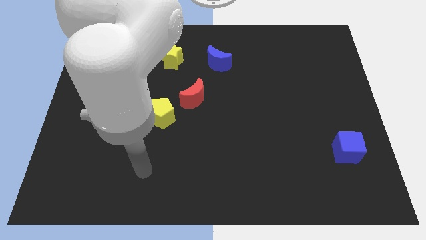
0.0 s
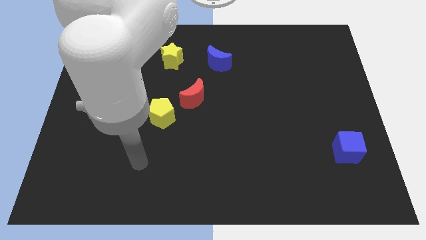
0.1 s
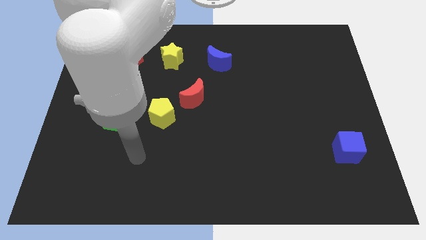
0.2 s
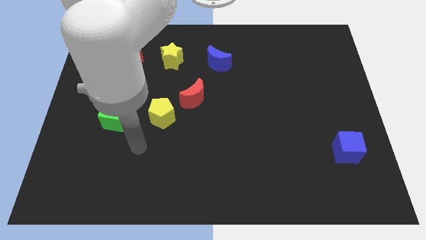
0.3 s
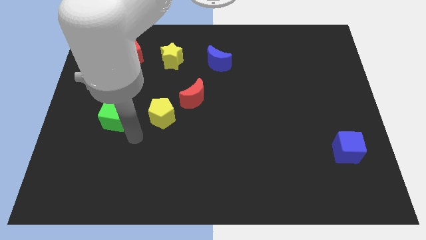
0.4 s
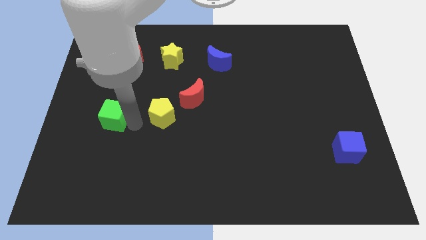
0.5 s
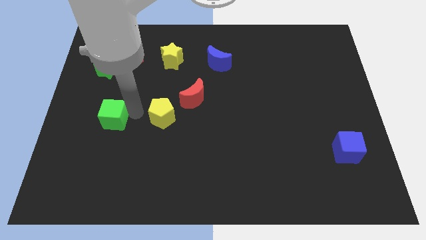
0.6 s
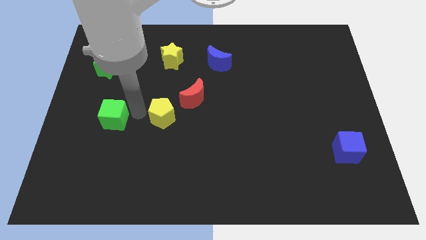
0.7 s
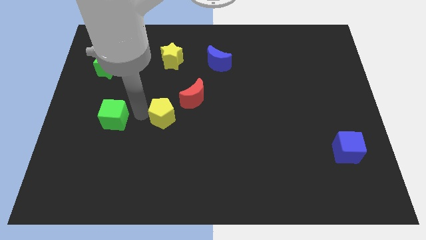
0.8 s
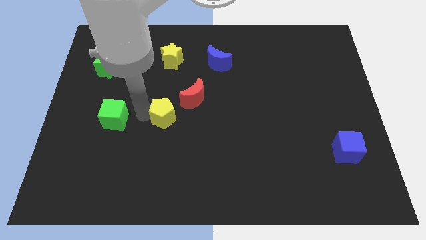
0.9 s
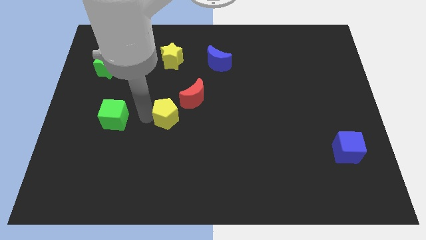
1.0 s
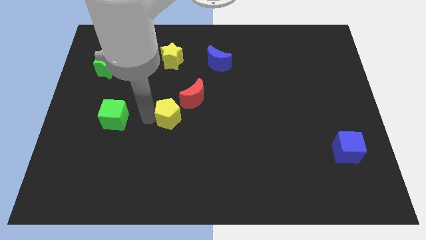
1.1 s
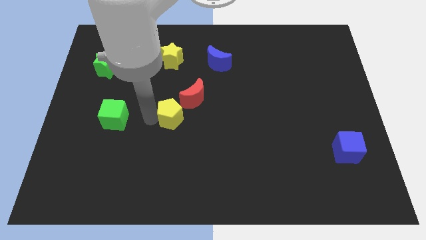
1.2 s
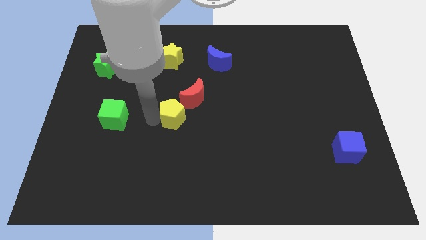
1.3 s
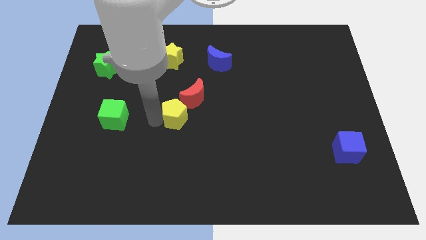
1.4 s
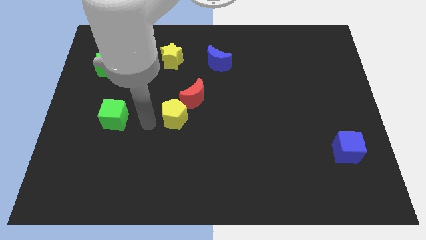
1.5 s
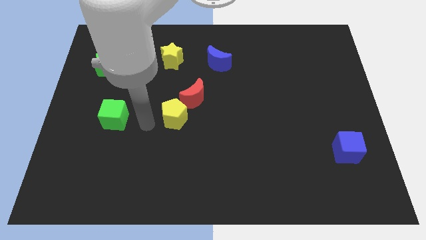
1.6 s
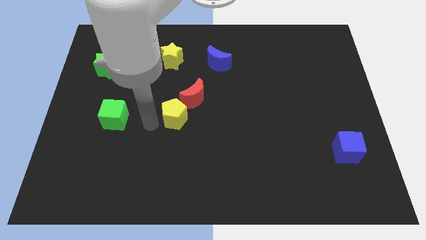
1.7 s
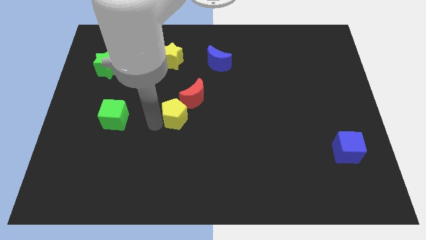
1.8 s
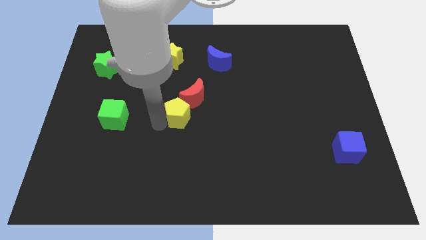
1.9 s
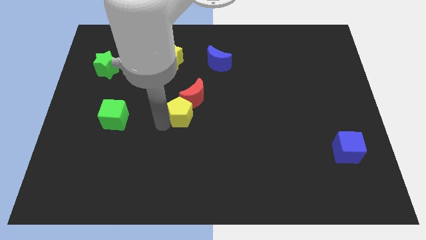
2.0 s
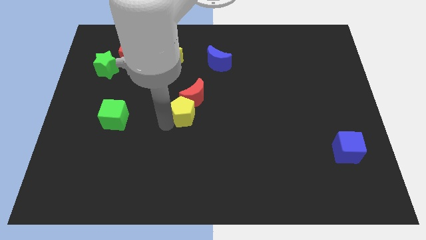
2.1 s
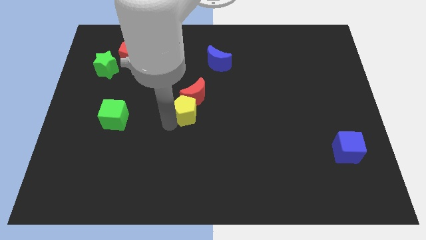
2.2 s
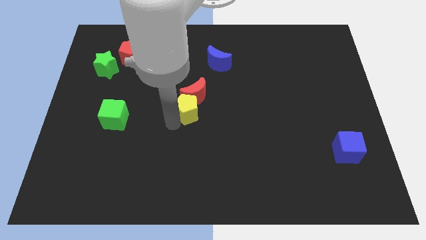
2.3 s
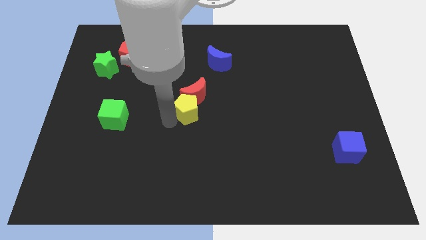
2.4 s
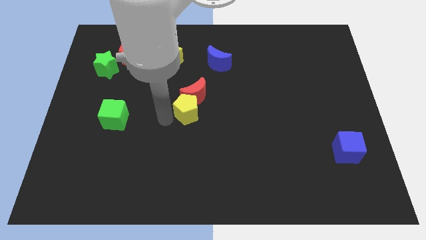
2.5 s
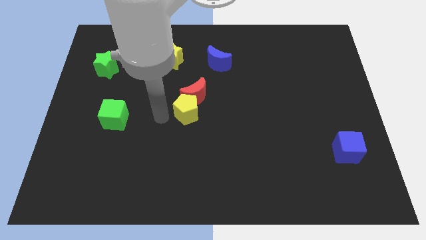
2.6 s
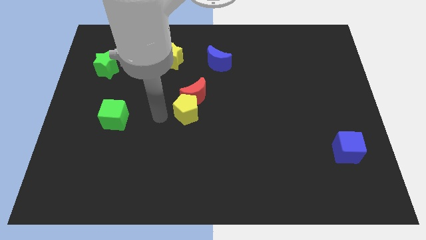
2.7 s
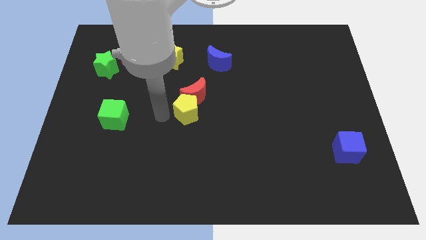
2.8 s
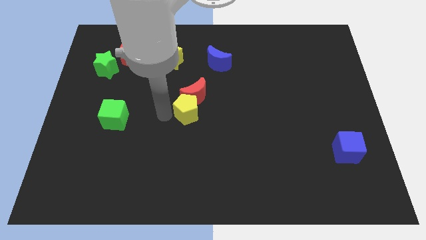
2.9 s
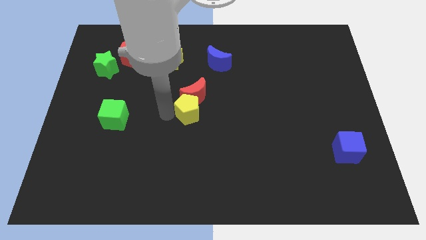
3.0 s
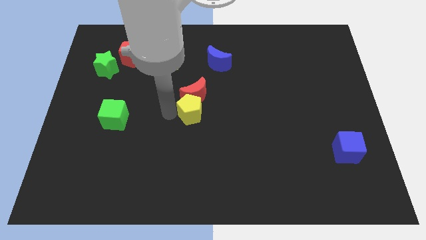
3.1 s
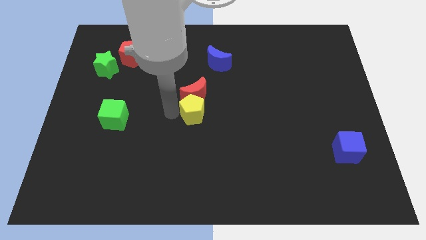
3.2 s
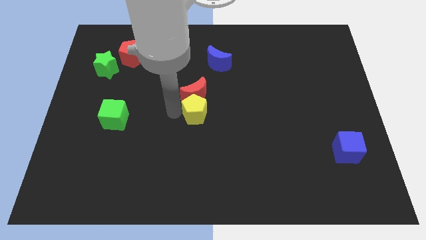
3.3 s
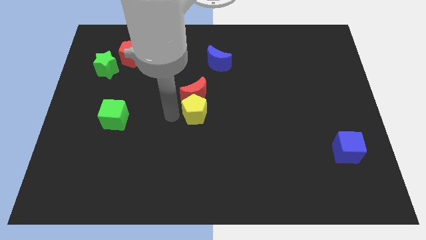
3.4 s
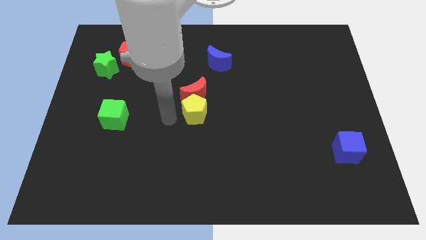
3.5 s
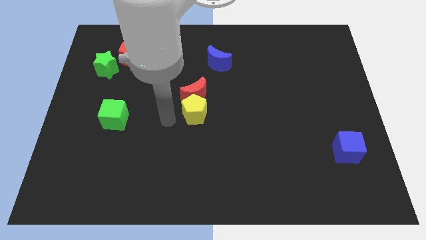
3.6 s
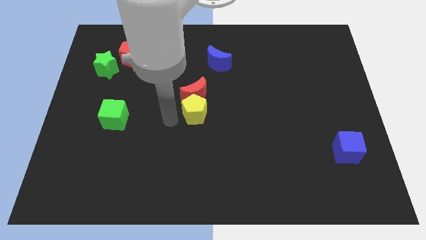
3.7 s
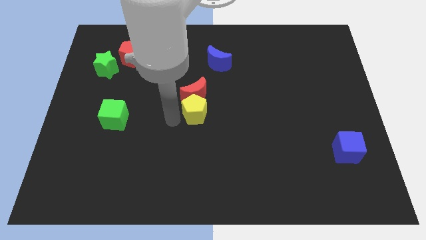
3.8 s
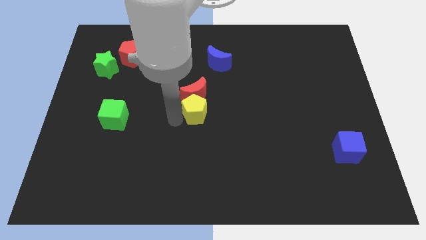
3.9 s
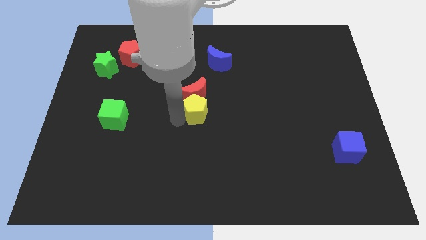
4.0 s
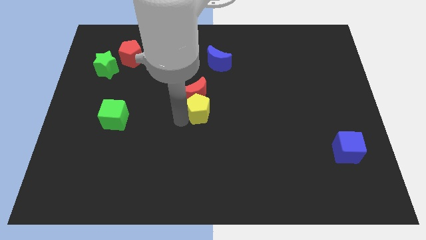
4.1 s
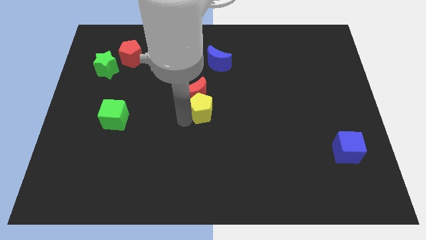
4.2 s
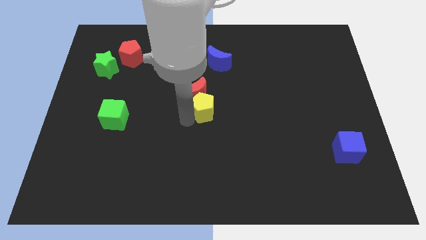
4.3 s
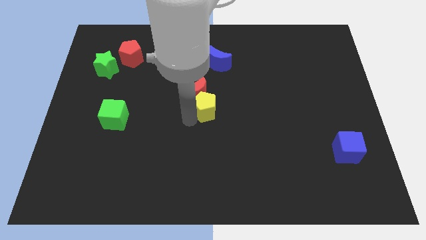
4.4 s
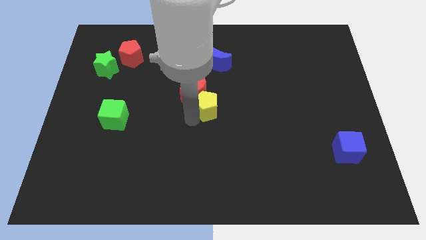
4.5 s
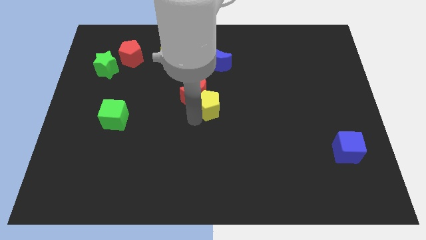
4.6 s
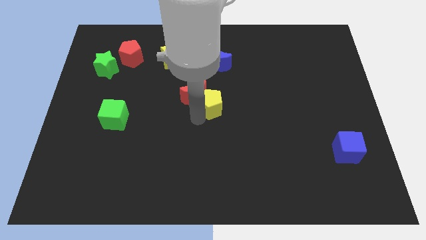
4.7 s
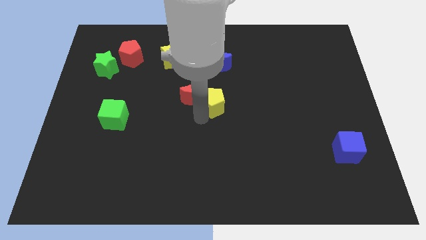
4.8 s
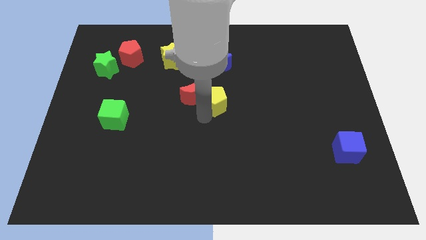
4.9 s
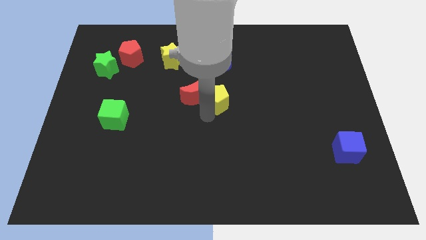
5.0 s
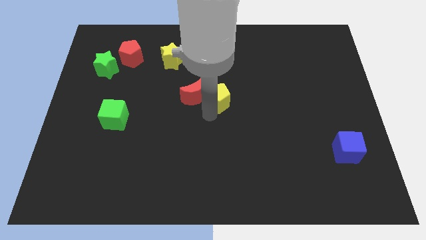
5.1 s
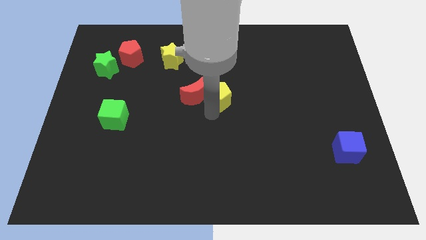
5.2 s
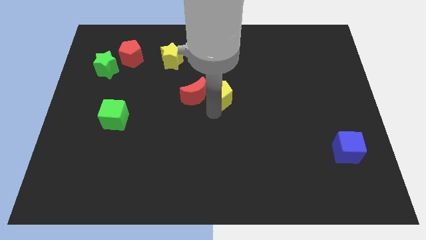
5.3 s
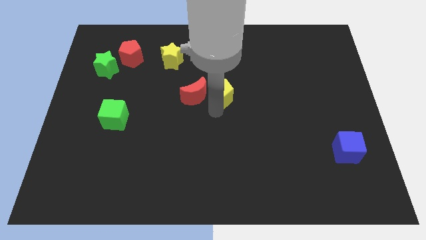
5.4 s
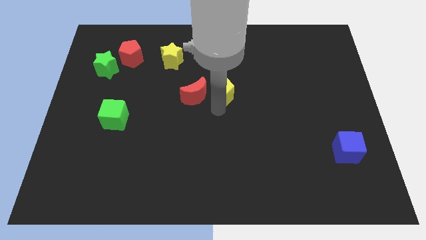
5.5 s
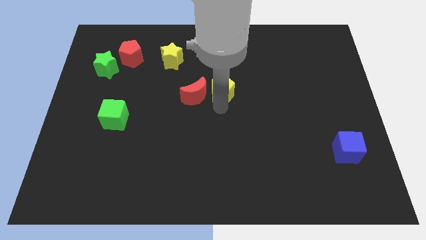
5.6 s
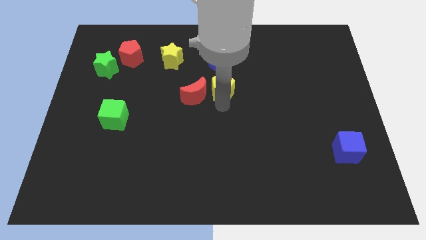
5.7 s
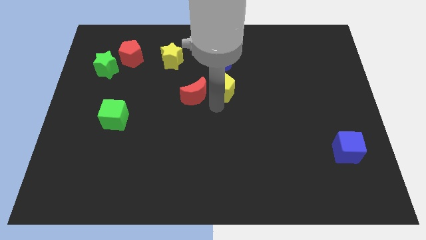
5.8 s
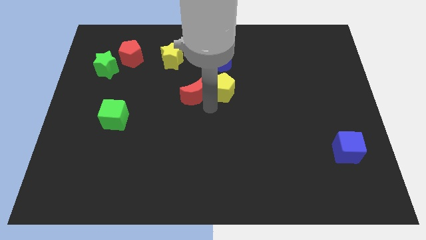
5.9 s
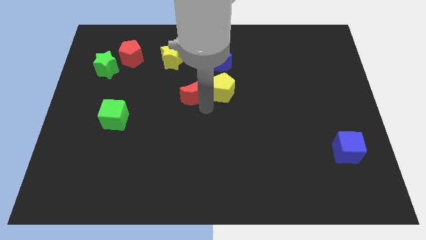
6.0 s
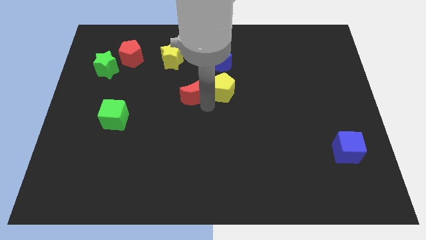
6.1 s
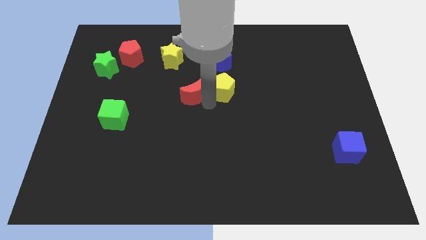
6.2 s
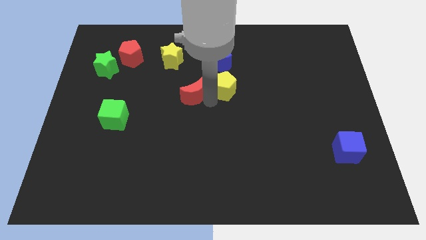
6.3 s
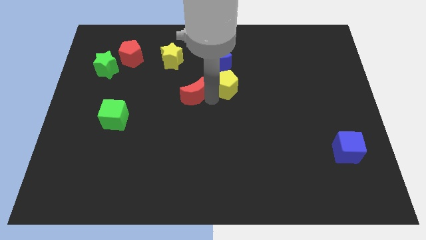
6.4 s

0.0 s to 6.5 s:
move the yellow pentagon to the bottom right side of the blue moon

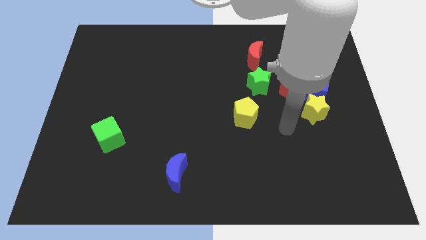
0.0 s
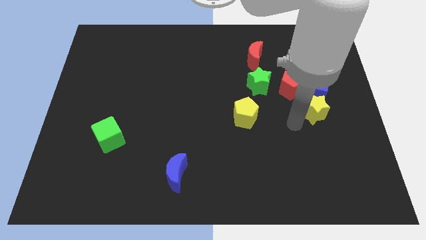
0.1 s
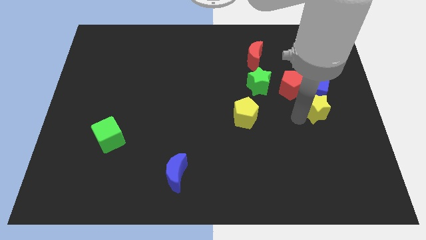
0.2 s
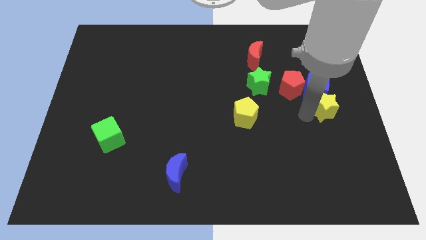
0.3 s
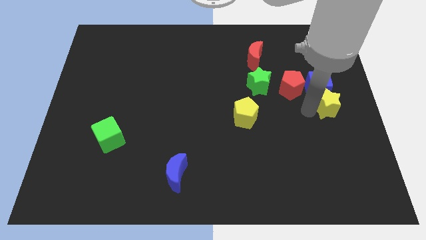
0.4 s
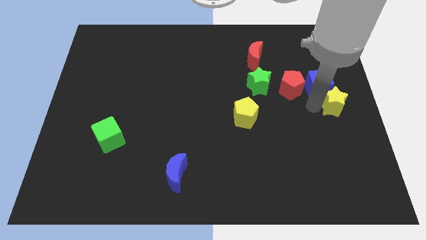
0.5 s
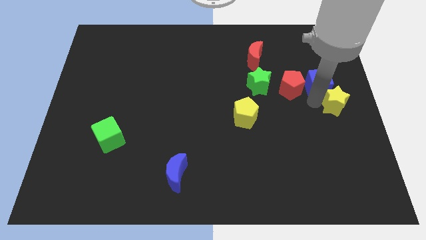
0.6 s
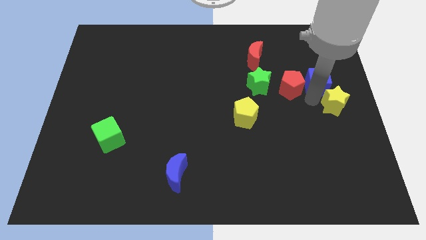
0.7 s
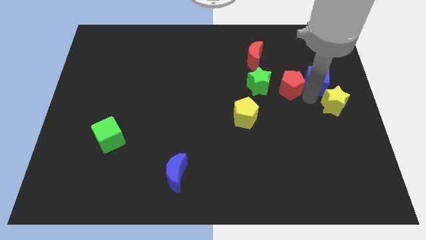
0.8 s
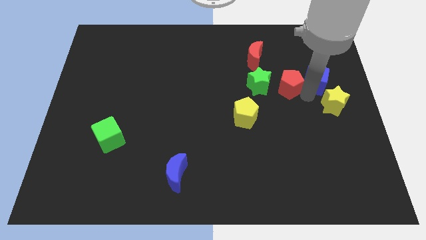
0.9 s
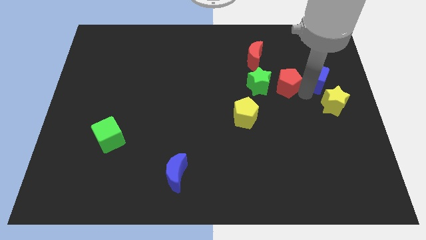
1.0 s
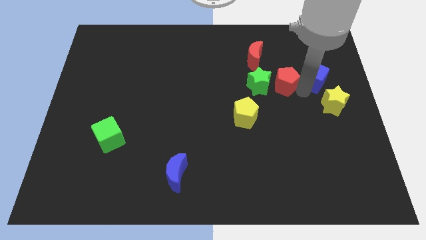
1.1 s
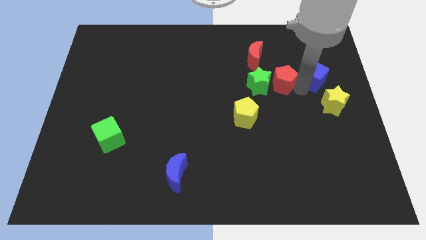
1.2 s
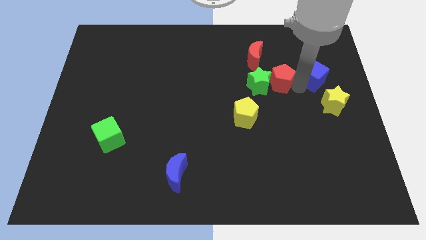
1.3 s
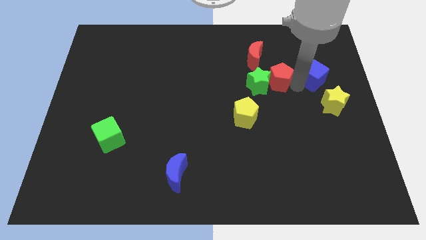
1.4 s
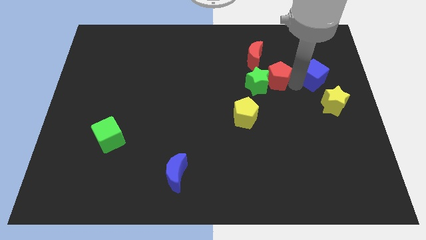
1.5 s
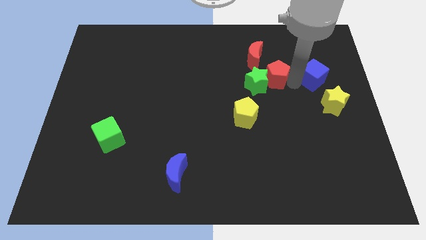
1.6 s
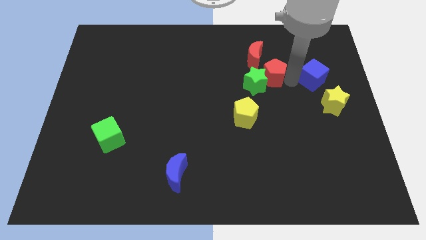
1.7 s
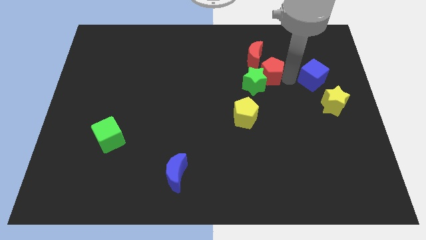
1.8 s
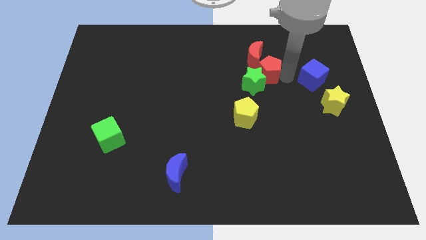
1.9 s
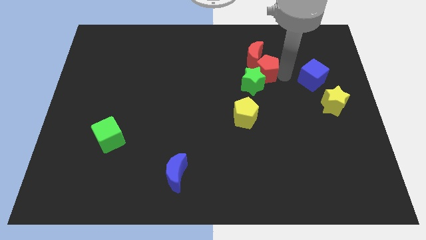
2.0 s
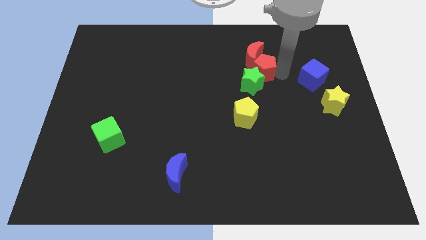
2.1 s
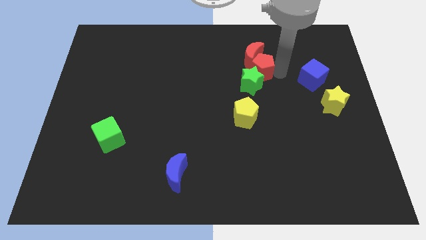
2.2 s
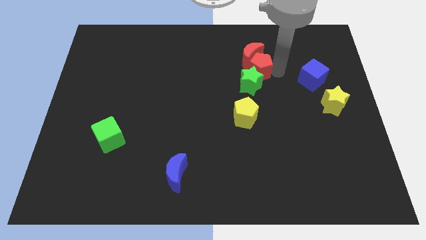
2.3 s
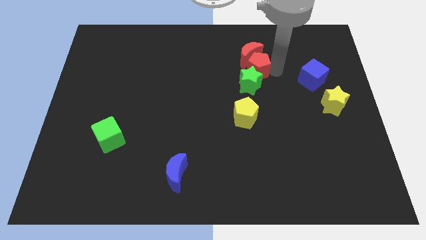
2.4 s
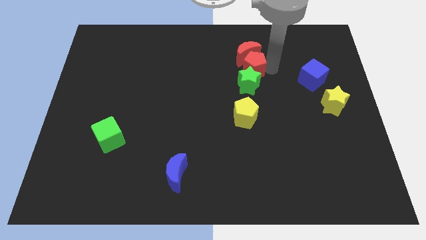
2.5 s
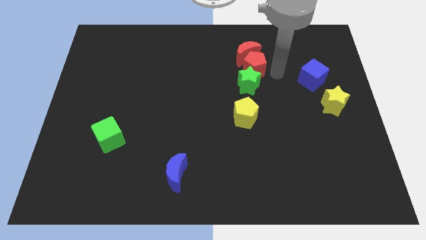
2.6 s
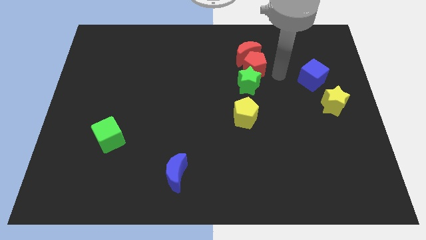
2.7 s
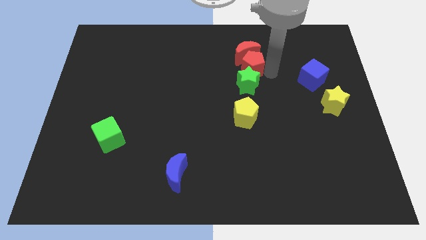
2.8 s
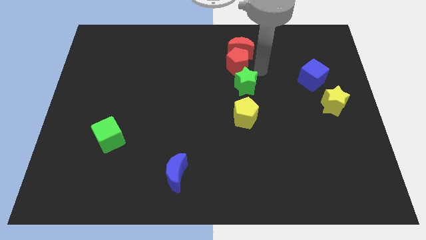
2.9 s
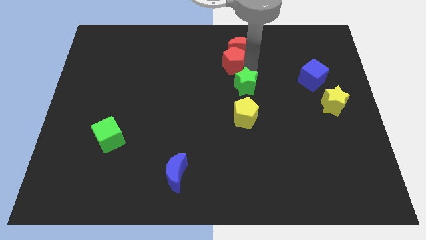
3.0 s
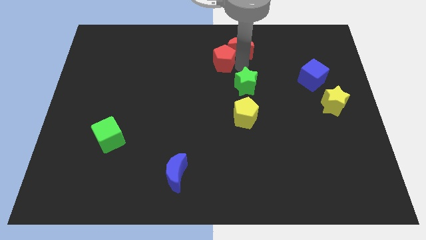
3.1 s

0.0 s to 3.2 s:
put the red pentagon just left of the red moon
